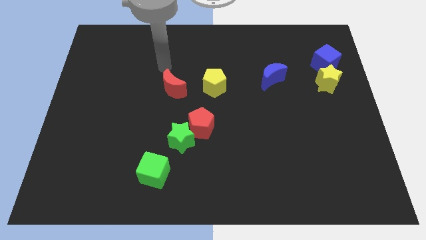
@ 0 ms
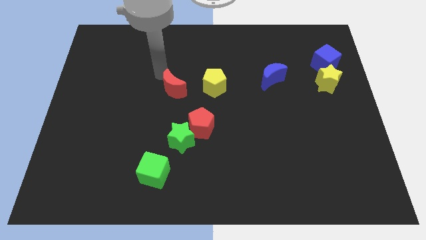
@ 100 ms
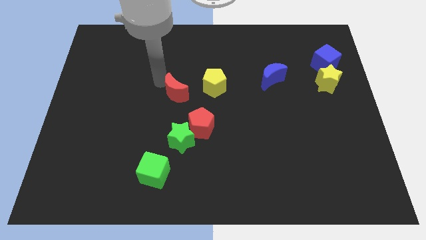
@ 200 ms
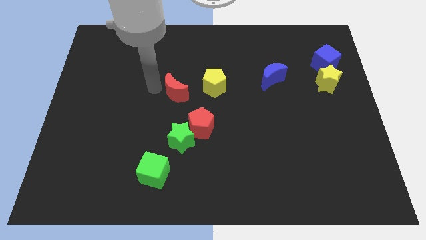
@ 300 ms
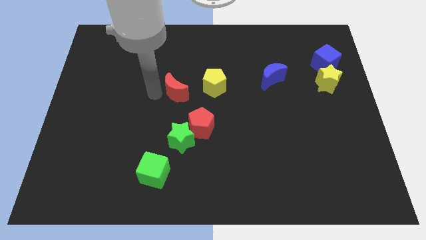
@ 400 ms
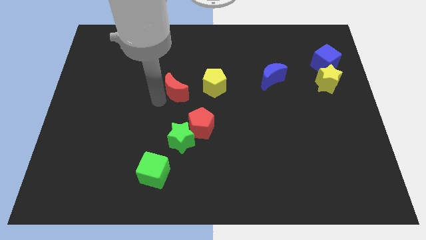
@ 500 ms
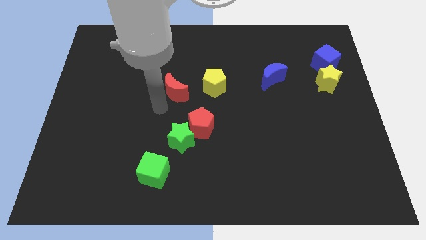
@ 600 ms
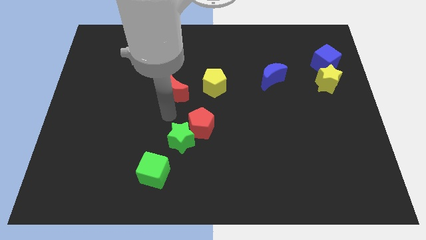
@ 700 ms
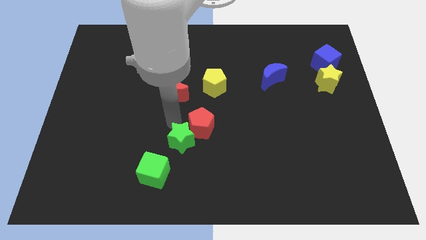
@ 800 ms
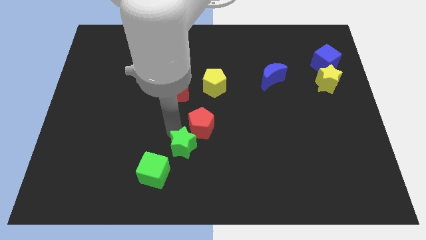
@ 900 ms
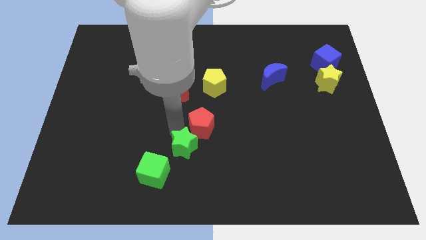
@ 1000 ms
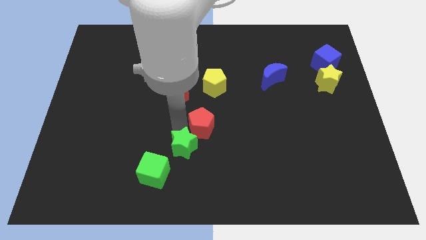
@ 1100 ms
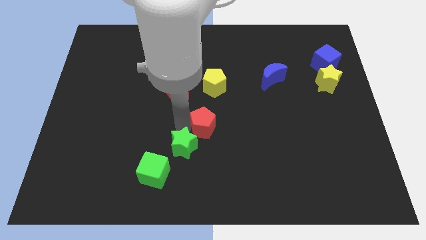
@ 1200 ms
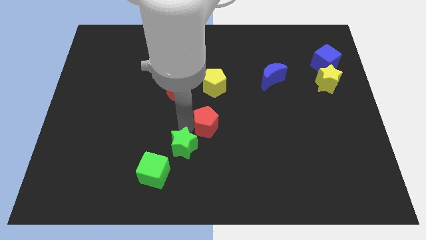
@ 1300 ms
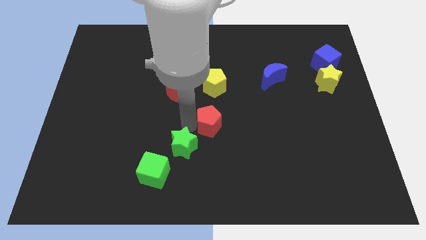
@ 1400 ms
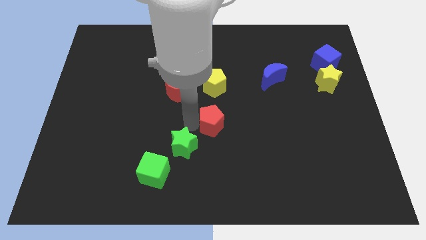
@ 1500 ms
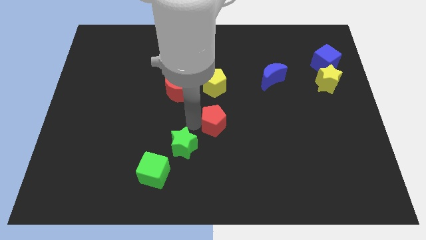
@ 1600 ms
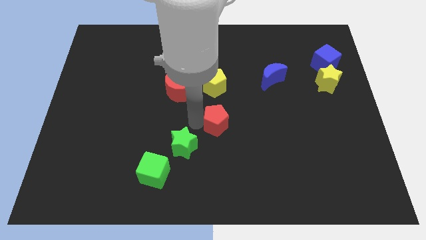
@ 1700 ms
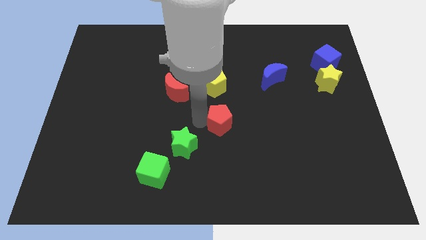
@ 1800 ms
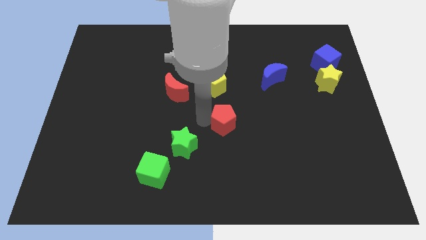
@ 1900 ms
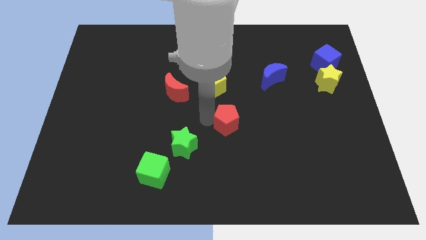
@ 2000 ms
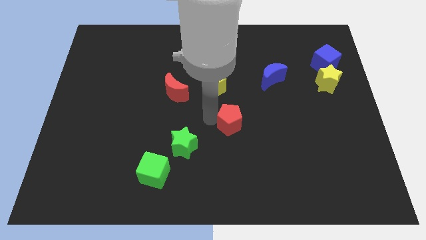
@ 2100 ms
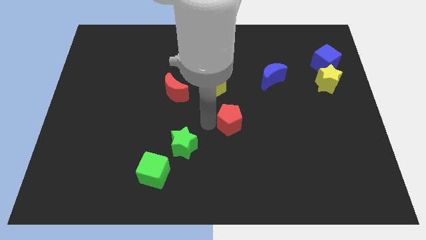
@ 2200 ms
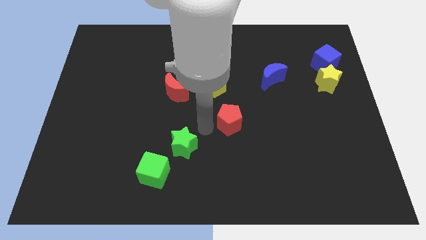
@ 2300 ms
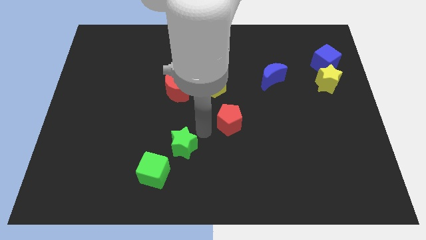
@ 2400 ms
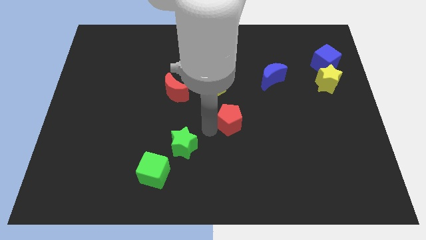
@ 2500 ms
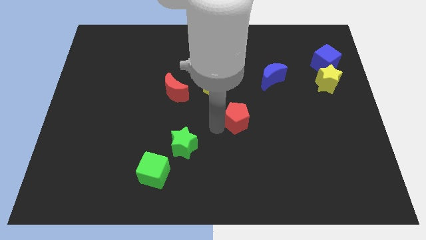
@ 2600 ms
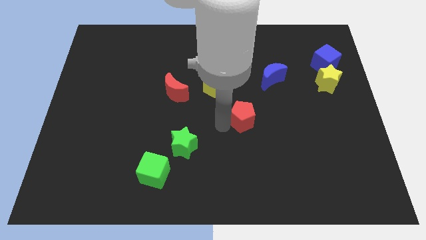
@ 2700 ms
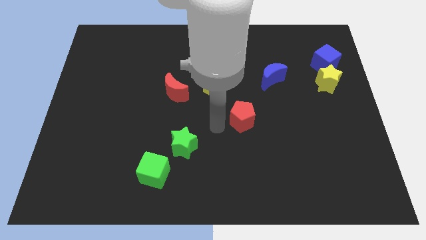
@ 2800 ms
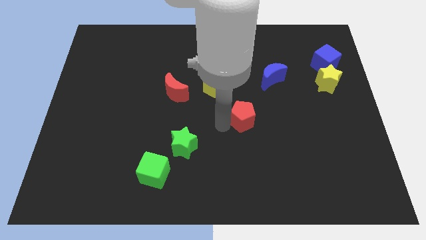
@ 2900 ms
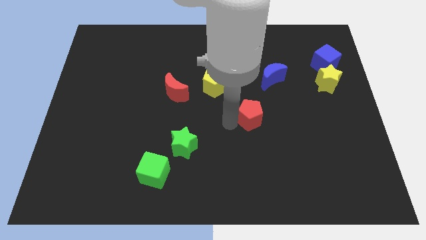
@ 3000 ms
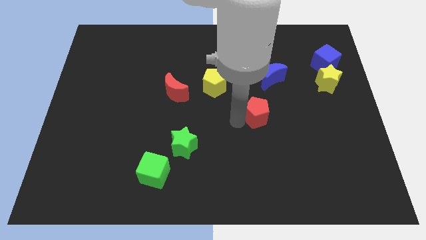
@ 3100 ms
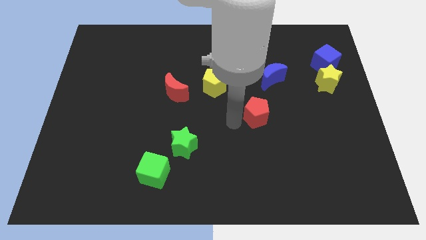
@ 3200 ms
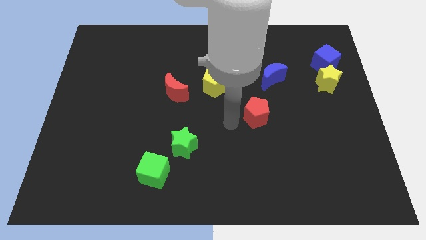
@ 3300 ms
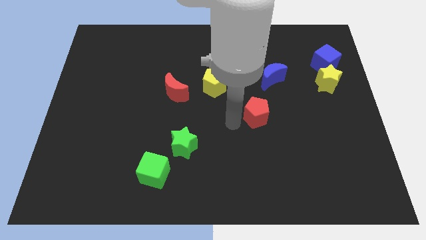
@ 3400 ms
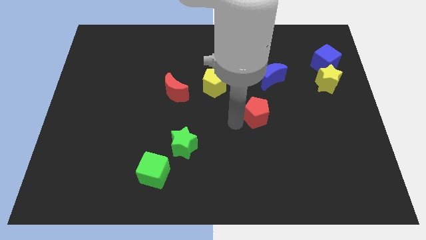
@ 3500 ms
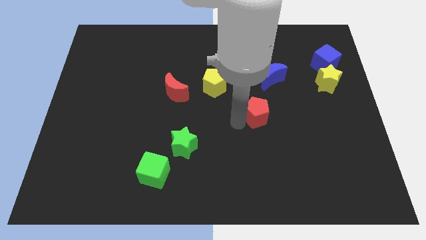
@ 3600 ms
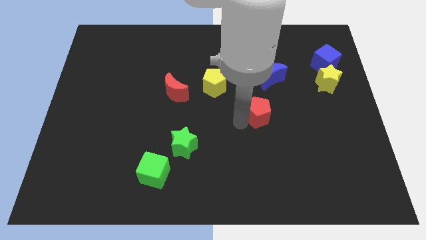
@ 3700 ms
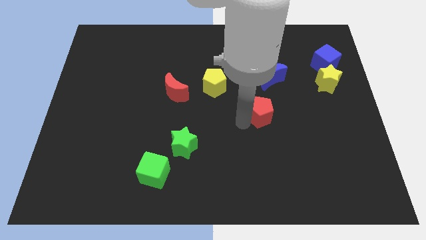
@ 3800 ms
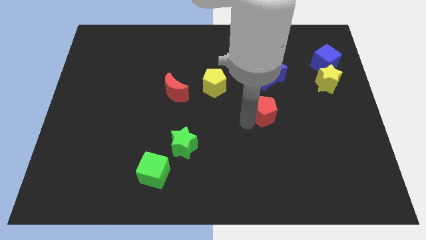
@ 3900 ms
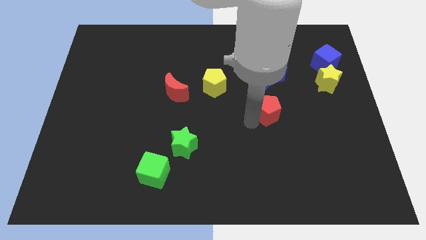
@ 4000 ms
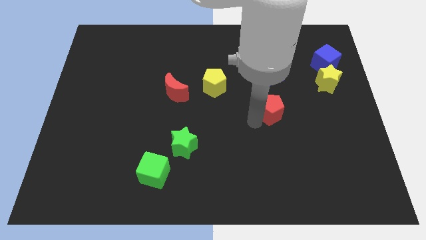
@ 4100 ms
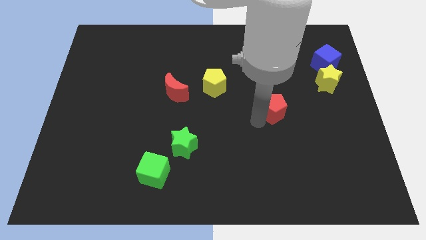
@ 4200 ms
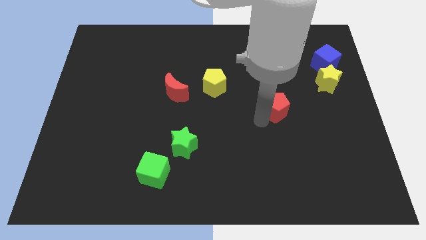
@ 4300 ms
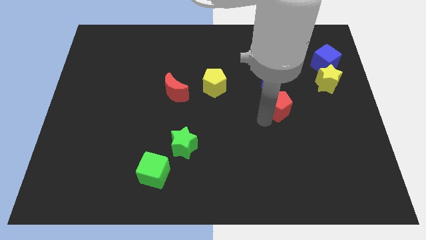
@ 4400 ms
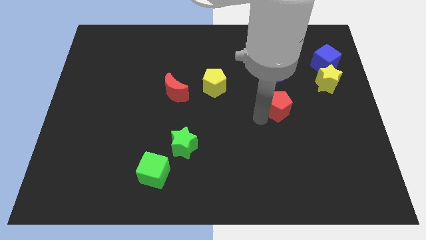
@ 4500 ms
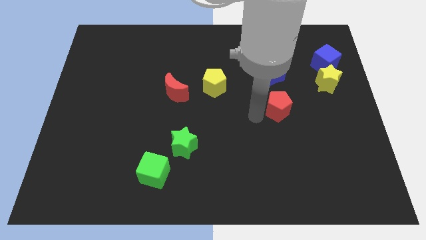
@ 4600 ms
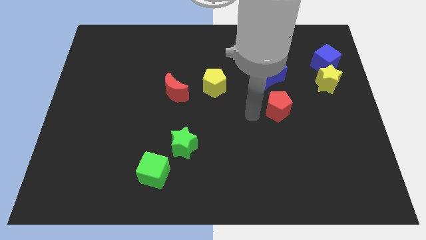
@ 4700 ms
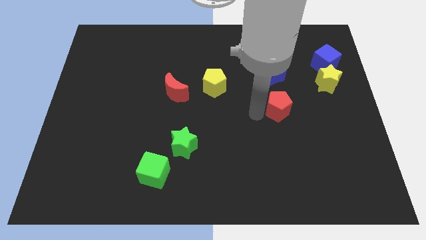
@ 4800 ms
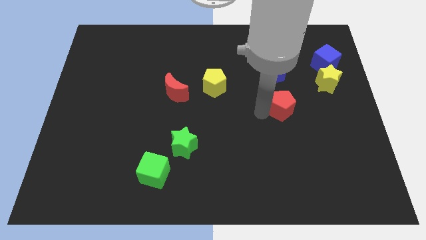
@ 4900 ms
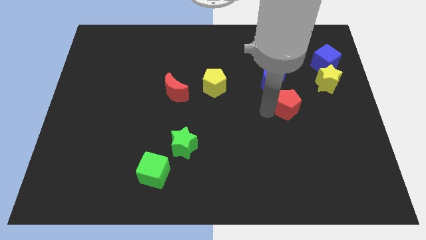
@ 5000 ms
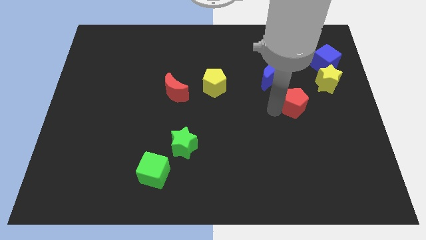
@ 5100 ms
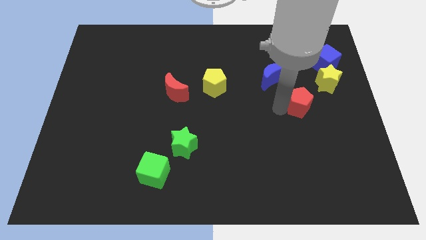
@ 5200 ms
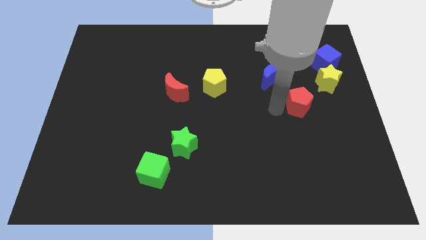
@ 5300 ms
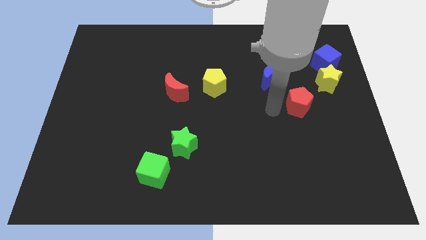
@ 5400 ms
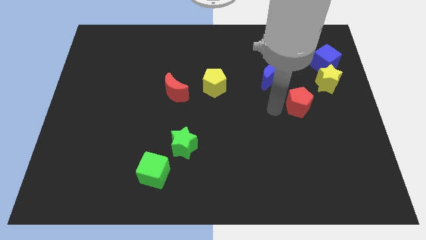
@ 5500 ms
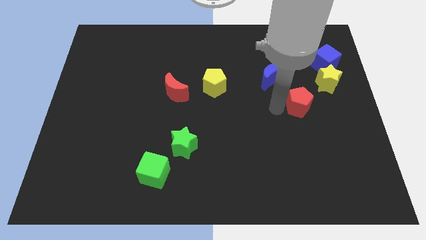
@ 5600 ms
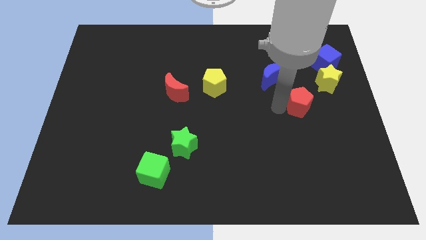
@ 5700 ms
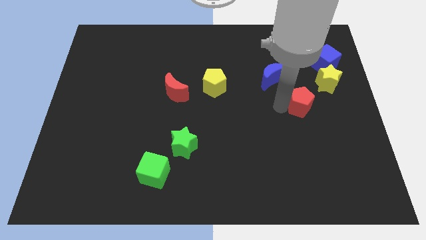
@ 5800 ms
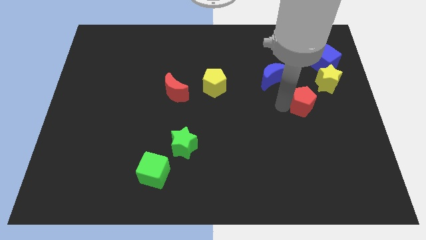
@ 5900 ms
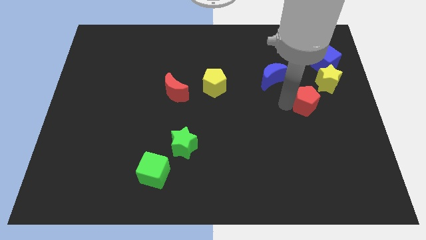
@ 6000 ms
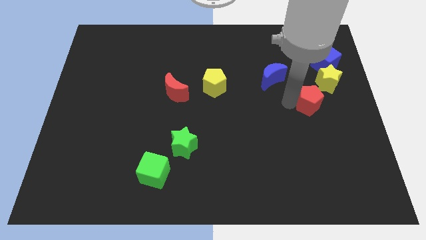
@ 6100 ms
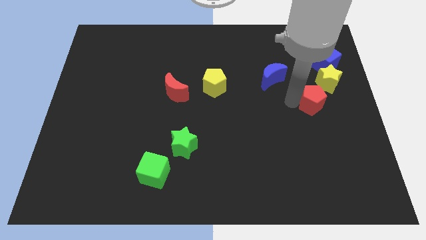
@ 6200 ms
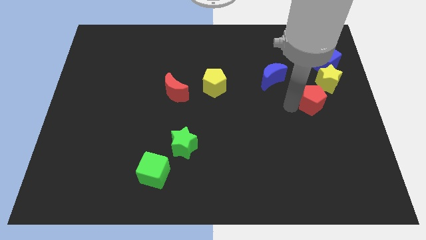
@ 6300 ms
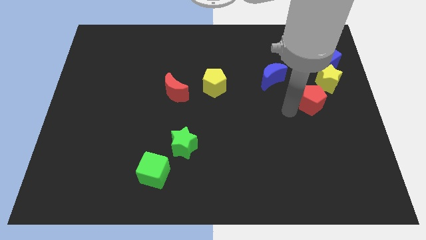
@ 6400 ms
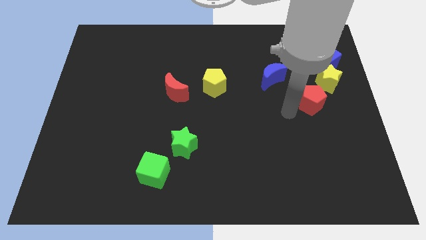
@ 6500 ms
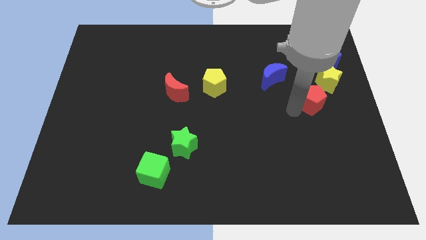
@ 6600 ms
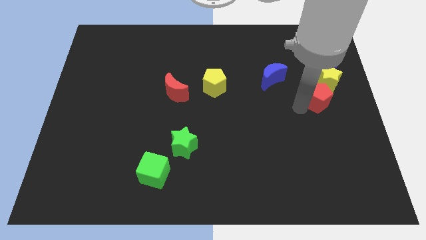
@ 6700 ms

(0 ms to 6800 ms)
slide the red pentagon to the bottom side of the blue cube

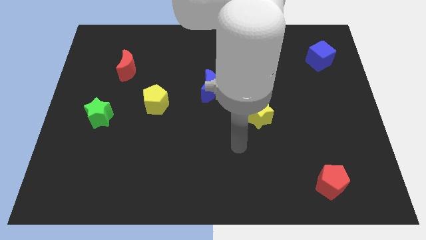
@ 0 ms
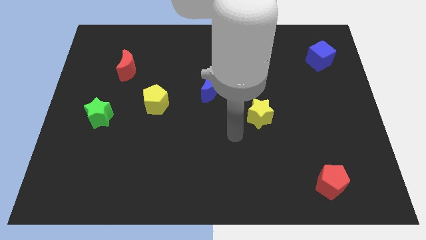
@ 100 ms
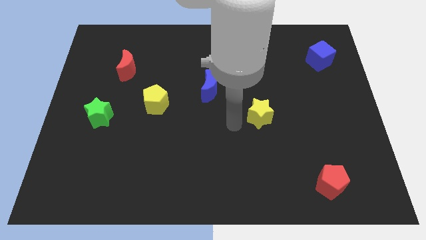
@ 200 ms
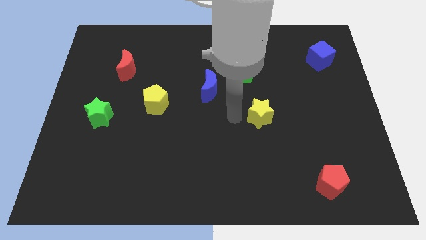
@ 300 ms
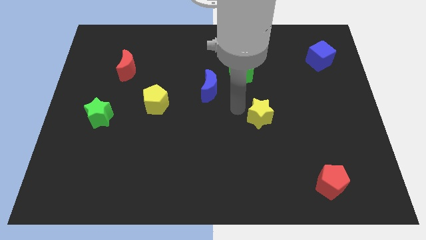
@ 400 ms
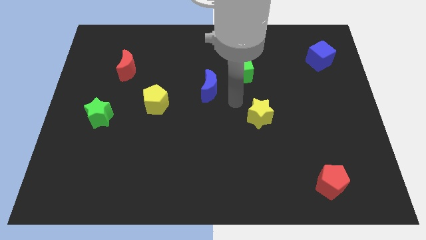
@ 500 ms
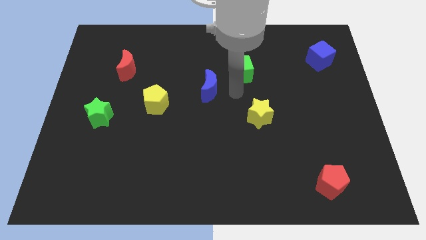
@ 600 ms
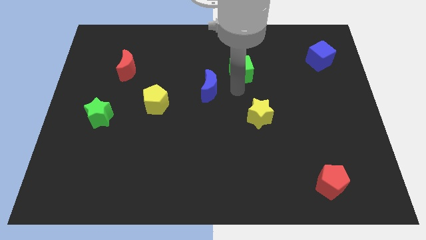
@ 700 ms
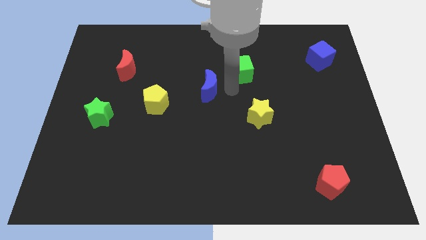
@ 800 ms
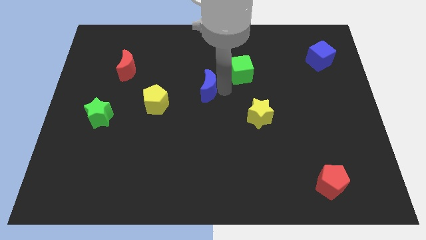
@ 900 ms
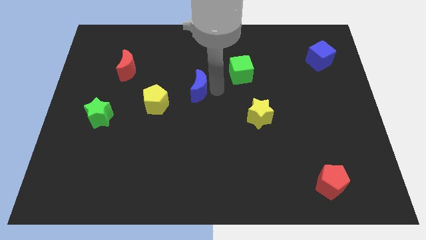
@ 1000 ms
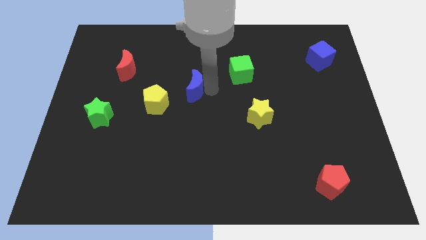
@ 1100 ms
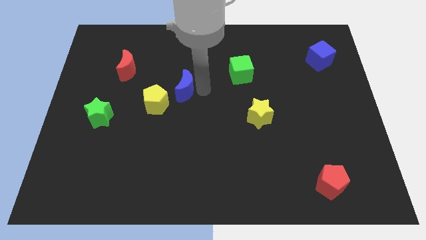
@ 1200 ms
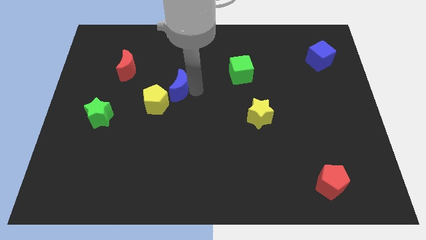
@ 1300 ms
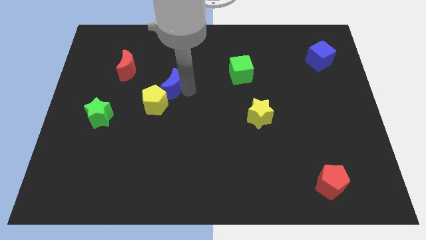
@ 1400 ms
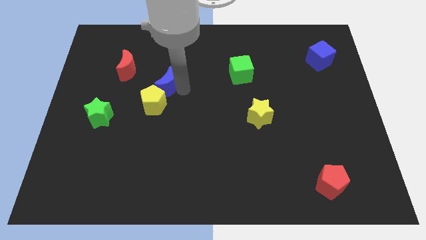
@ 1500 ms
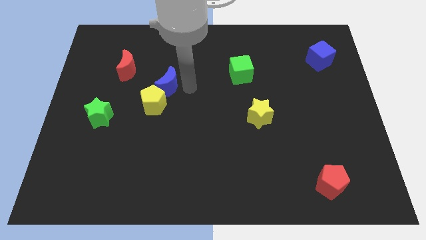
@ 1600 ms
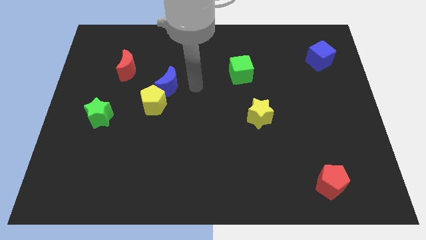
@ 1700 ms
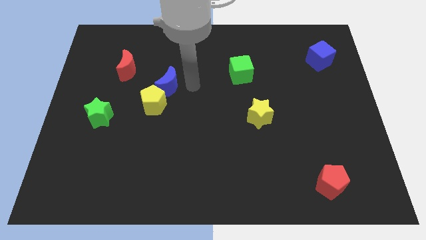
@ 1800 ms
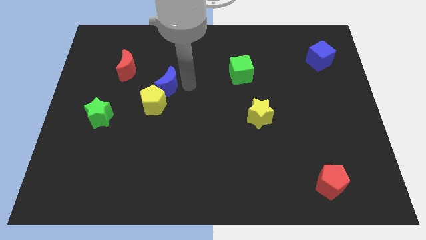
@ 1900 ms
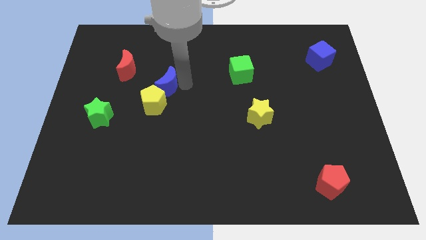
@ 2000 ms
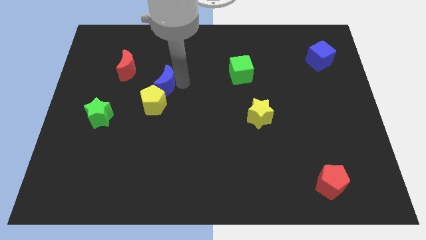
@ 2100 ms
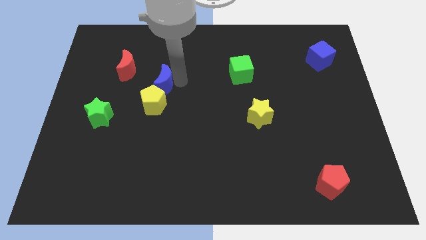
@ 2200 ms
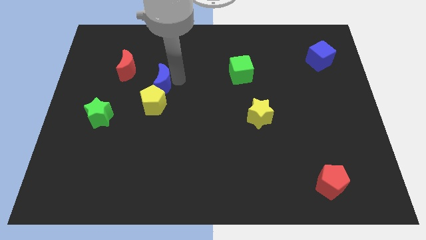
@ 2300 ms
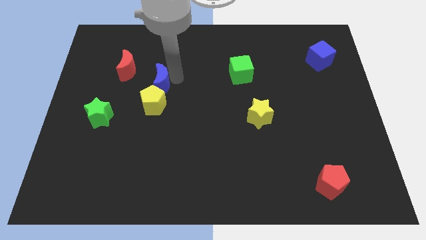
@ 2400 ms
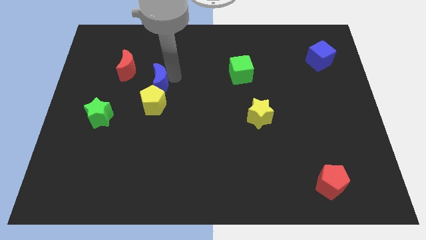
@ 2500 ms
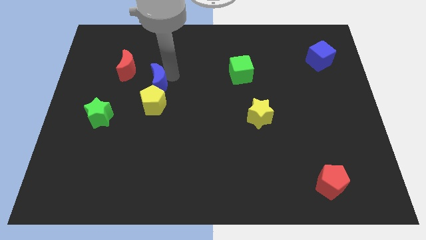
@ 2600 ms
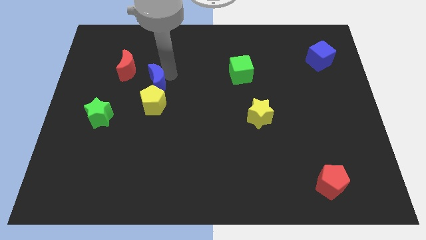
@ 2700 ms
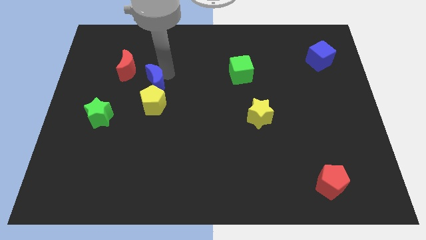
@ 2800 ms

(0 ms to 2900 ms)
push the blue moon to the top left side of the yellow pentagon
